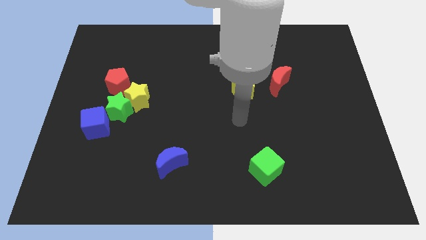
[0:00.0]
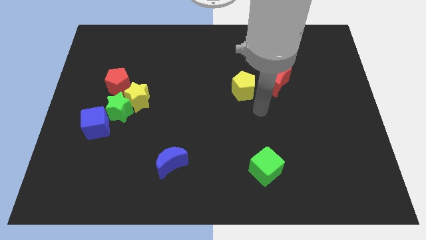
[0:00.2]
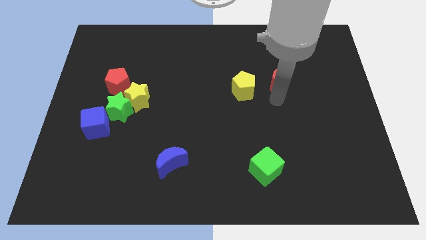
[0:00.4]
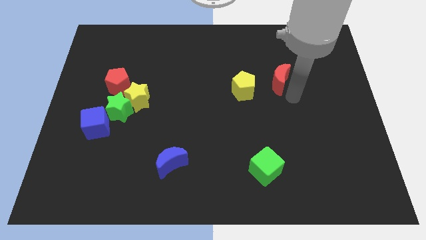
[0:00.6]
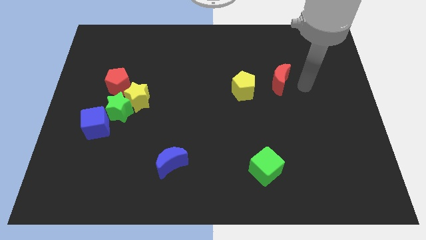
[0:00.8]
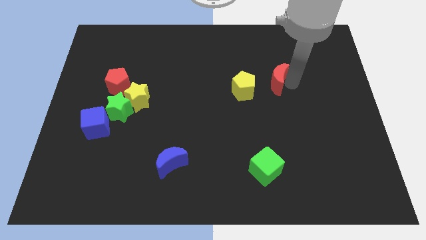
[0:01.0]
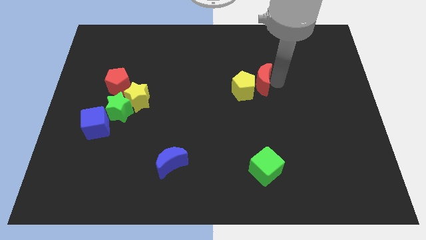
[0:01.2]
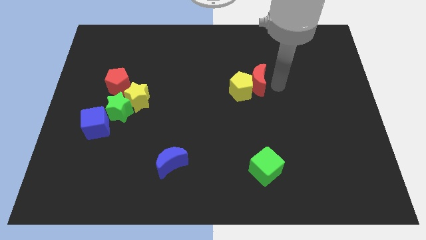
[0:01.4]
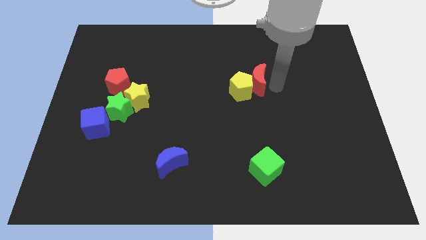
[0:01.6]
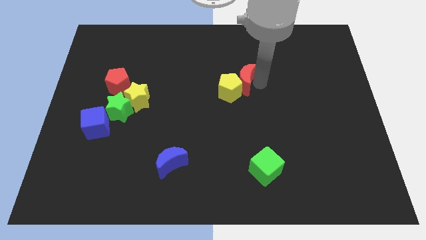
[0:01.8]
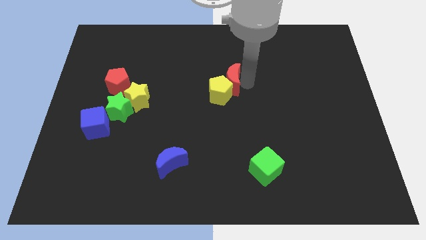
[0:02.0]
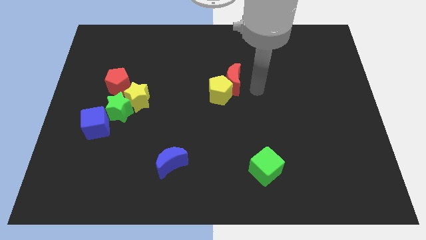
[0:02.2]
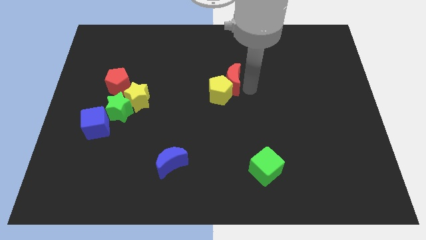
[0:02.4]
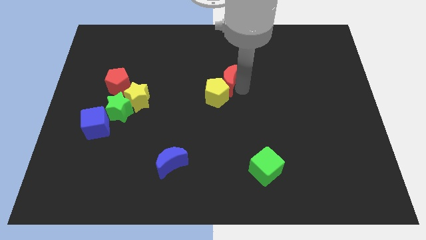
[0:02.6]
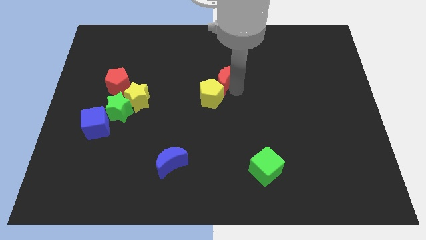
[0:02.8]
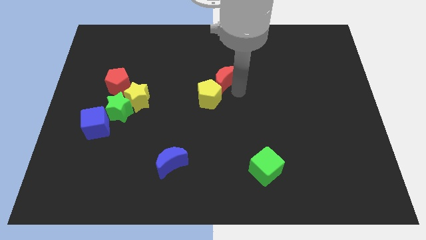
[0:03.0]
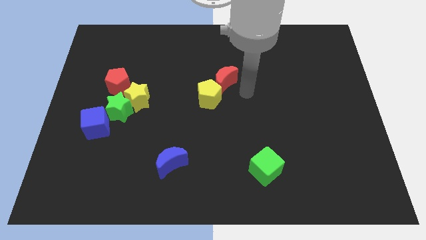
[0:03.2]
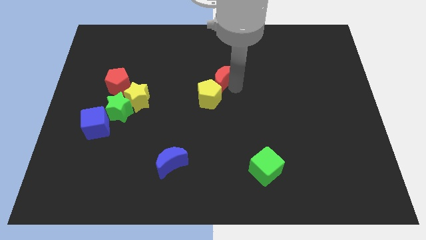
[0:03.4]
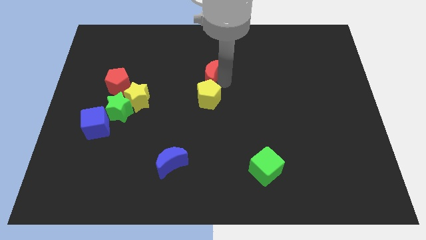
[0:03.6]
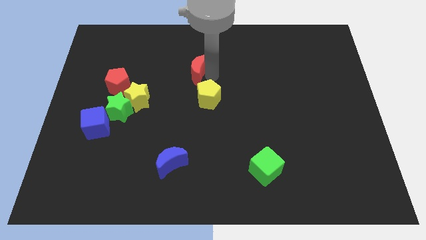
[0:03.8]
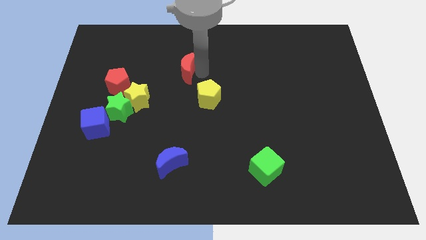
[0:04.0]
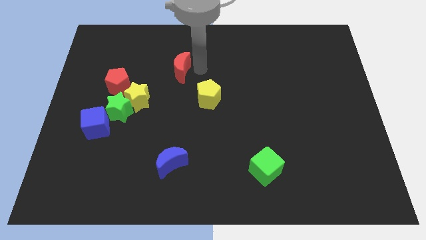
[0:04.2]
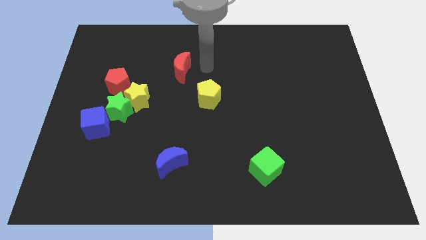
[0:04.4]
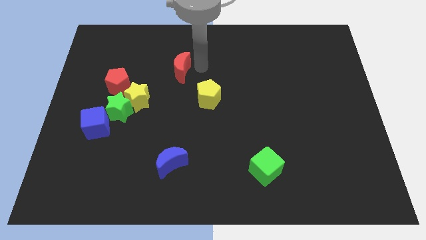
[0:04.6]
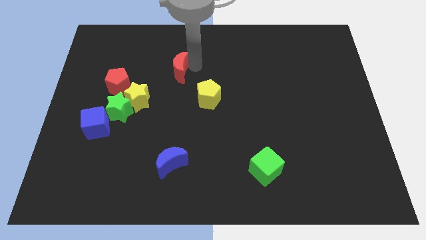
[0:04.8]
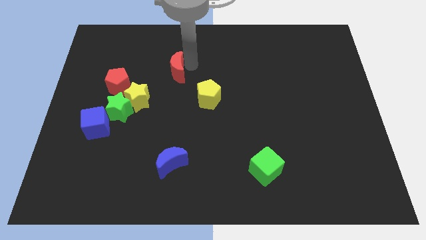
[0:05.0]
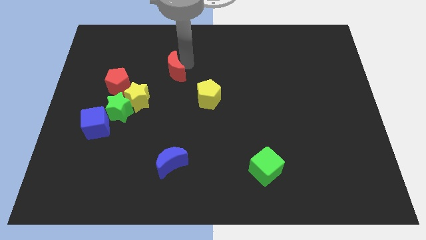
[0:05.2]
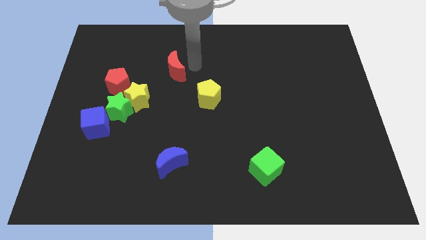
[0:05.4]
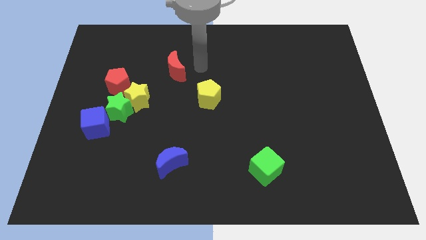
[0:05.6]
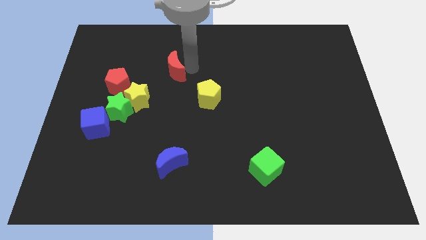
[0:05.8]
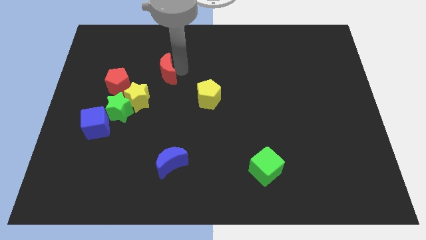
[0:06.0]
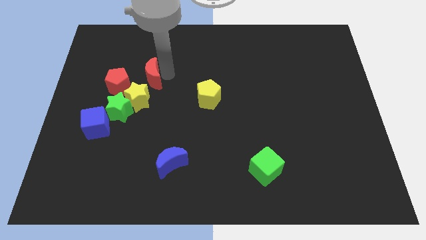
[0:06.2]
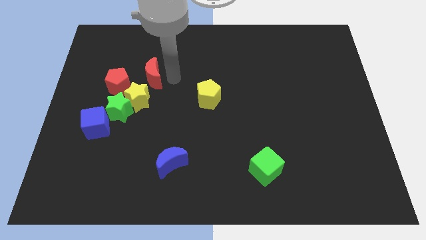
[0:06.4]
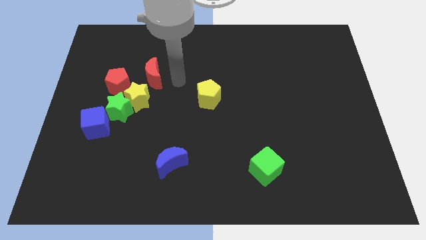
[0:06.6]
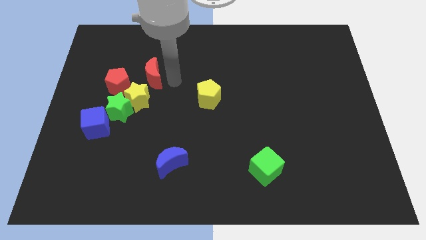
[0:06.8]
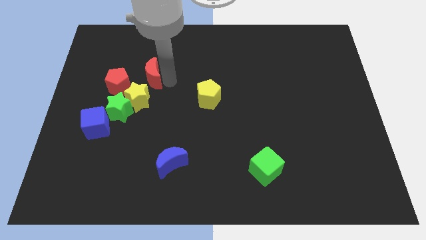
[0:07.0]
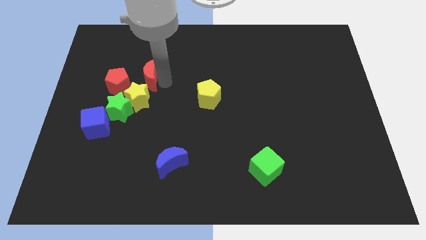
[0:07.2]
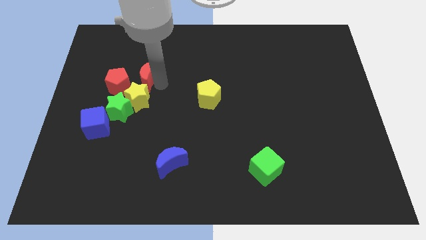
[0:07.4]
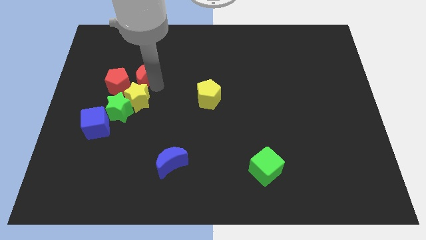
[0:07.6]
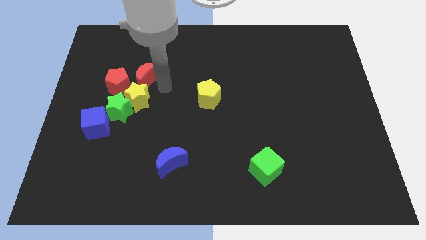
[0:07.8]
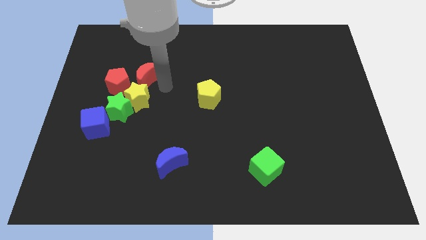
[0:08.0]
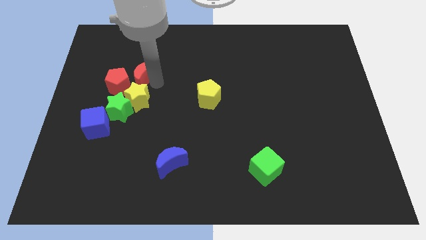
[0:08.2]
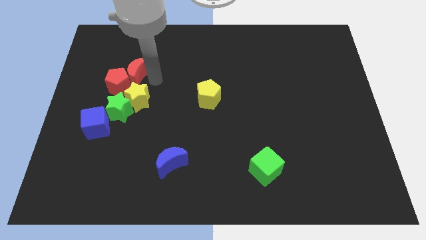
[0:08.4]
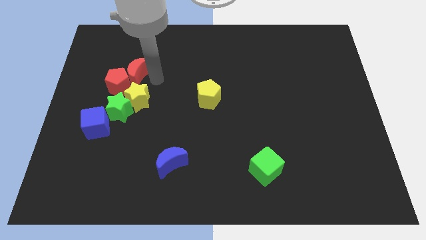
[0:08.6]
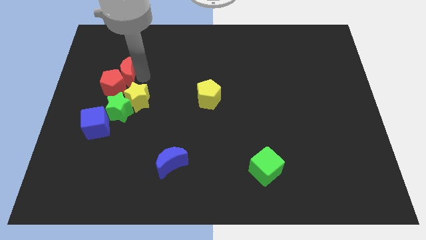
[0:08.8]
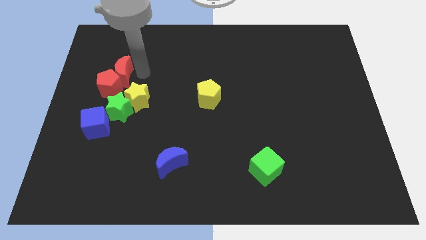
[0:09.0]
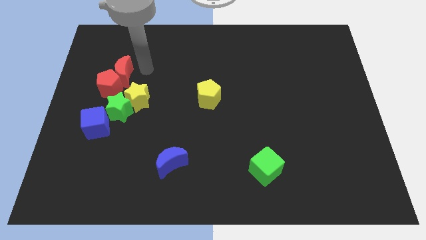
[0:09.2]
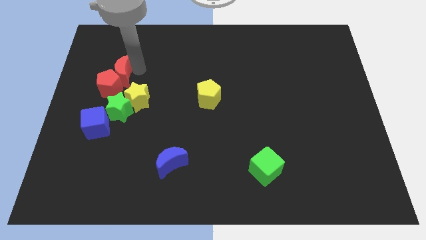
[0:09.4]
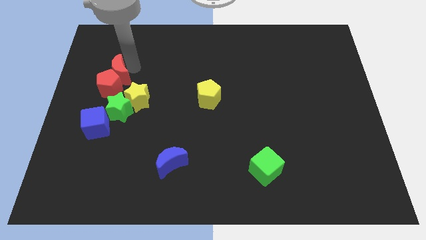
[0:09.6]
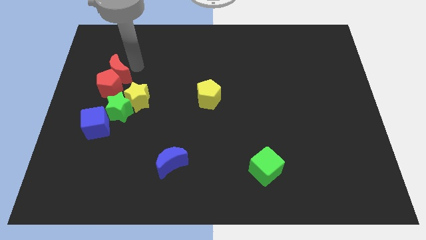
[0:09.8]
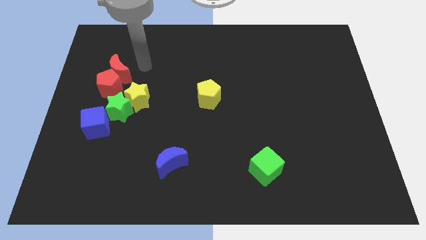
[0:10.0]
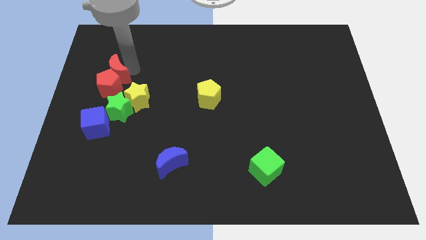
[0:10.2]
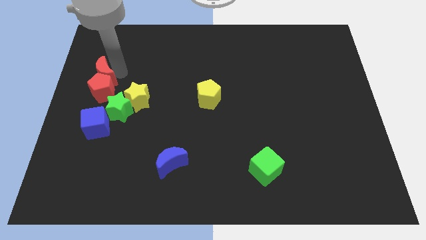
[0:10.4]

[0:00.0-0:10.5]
slide the red moon to the center left

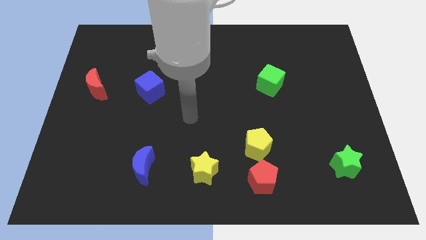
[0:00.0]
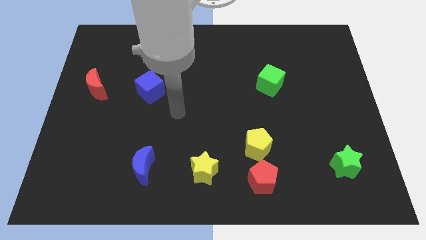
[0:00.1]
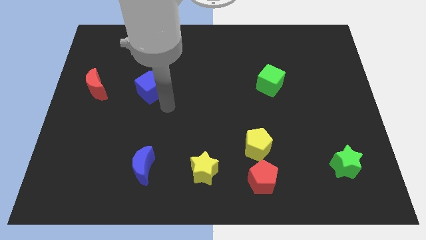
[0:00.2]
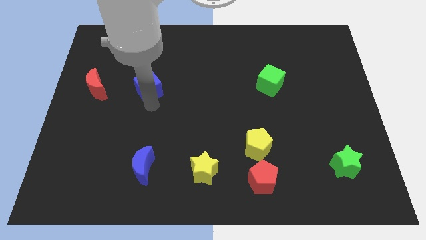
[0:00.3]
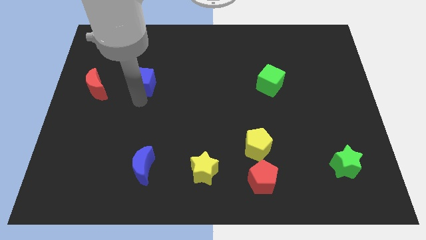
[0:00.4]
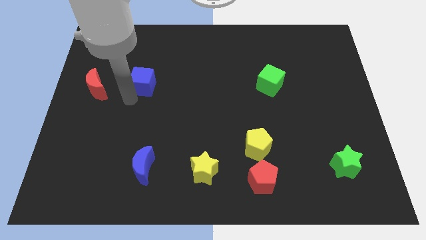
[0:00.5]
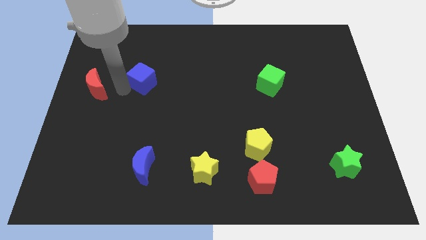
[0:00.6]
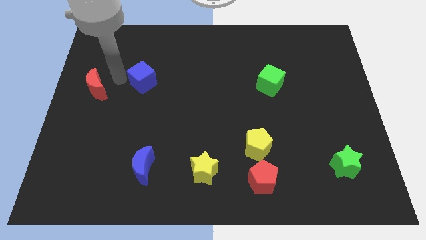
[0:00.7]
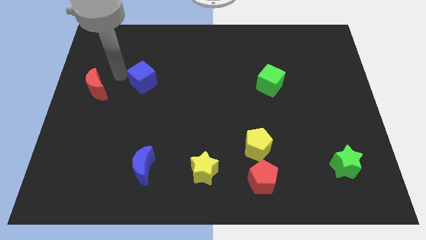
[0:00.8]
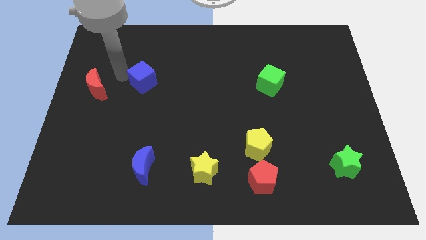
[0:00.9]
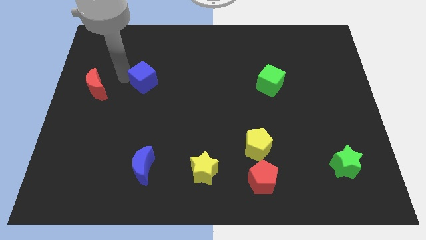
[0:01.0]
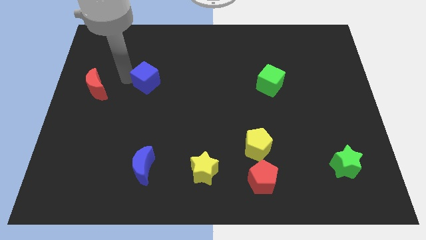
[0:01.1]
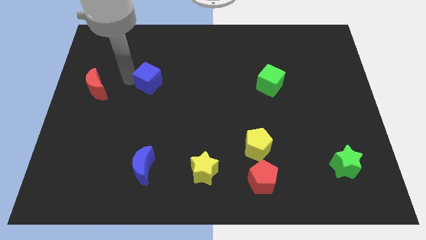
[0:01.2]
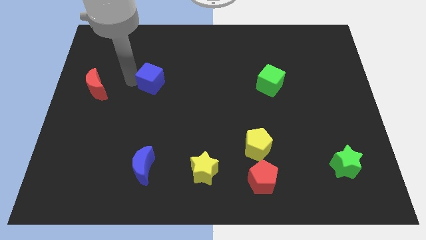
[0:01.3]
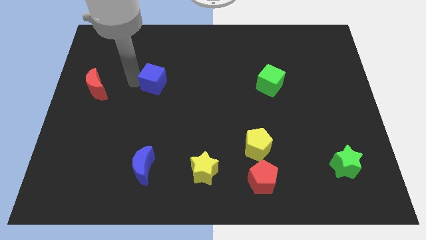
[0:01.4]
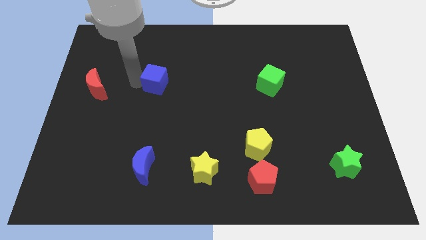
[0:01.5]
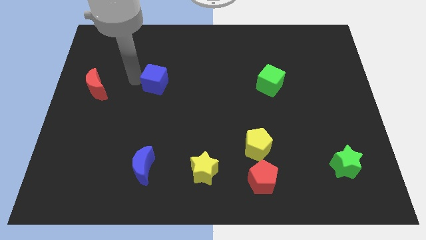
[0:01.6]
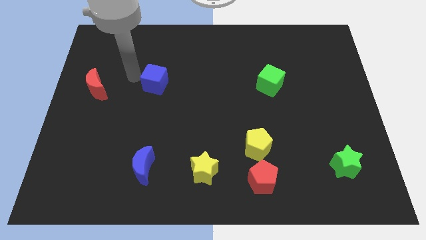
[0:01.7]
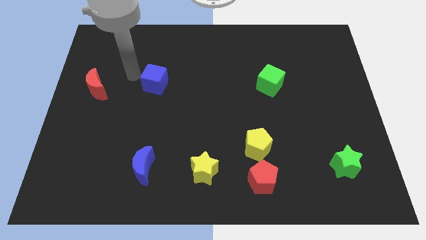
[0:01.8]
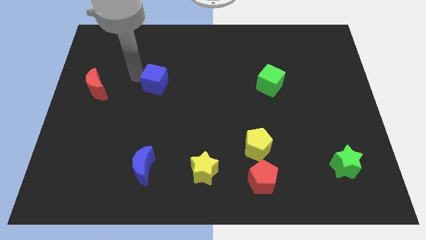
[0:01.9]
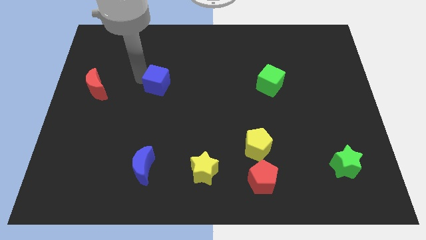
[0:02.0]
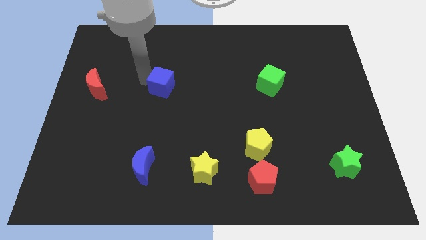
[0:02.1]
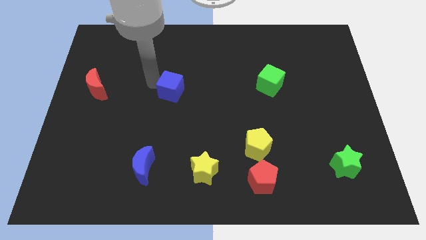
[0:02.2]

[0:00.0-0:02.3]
slide the blue cube to the middle
